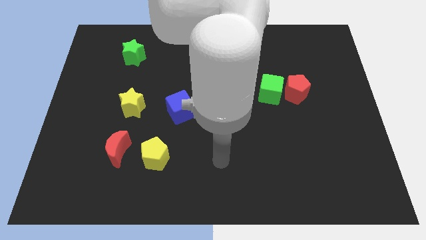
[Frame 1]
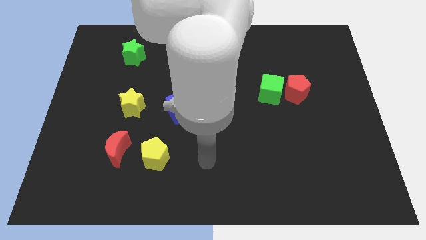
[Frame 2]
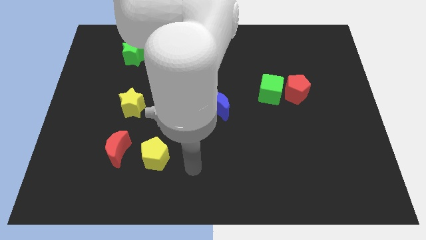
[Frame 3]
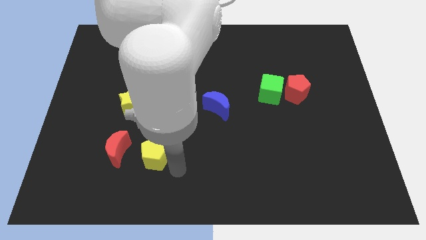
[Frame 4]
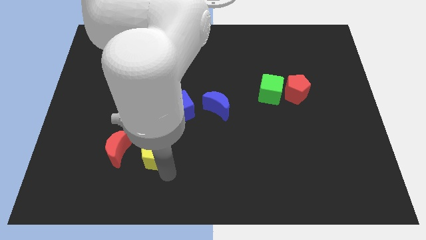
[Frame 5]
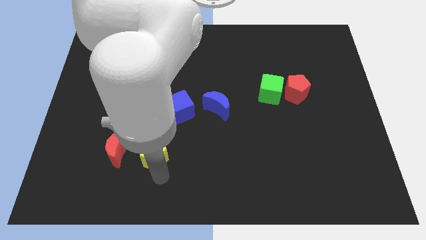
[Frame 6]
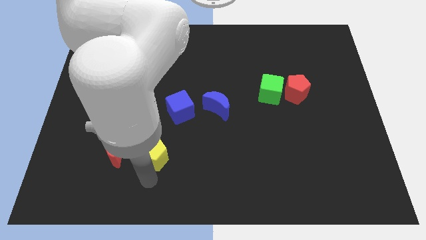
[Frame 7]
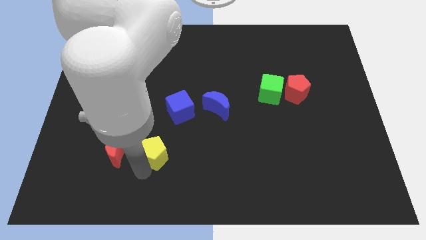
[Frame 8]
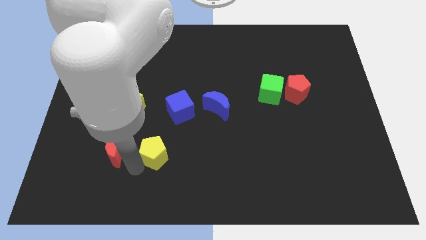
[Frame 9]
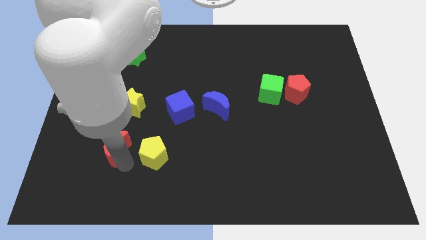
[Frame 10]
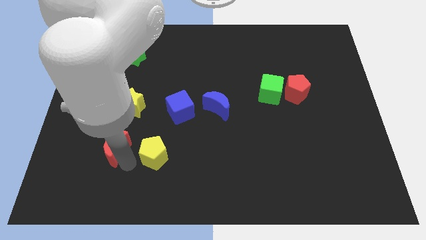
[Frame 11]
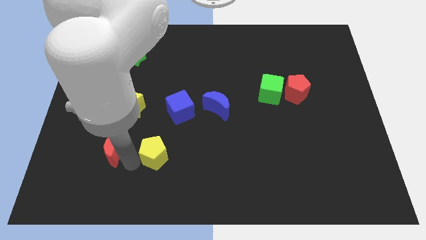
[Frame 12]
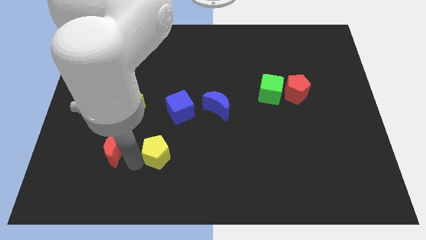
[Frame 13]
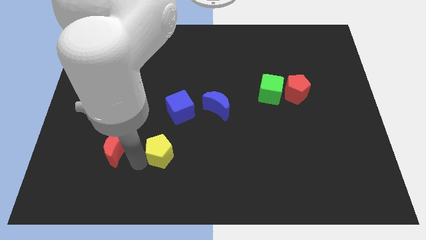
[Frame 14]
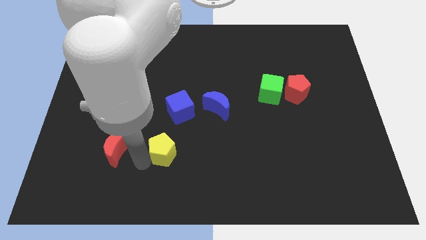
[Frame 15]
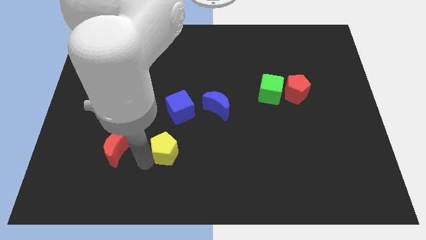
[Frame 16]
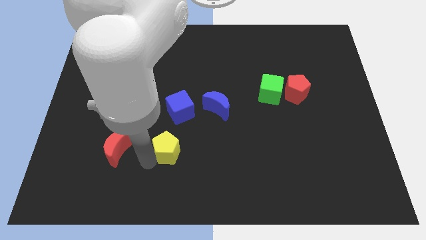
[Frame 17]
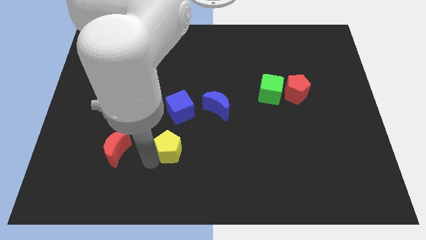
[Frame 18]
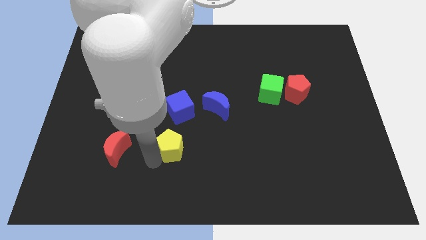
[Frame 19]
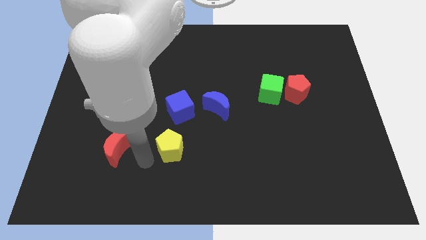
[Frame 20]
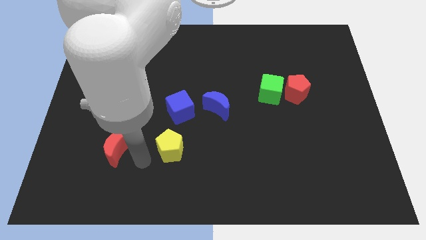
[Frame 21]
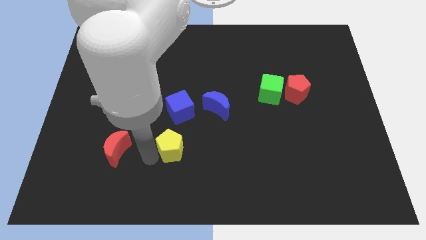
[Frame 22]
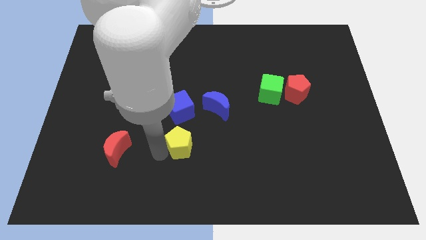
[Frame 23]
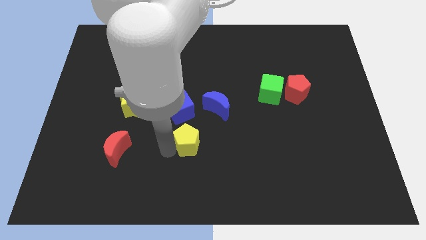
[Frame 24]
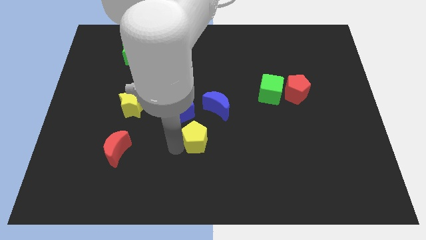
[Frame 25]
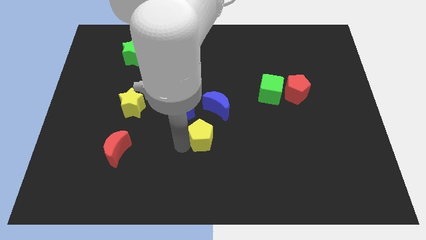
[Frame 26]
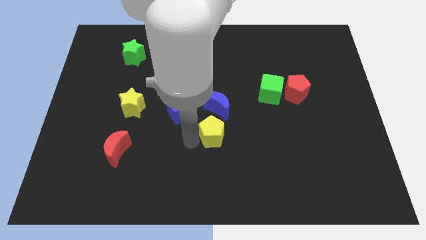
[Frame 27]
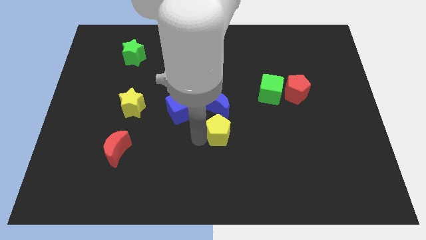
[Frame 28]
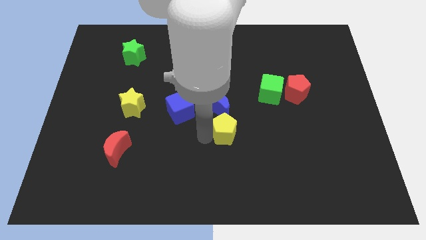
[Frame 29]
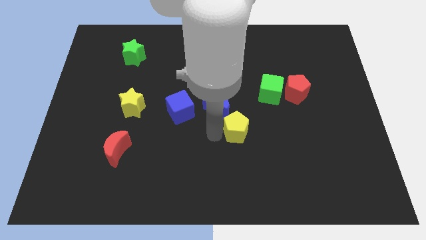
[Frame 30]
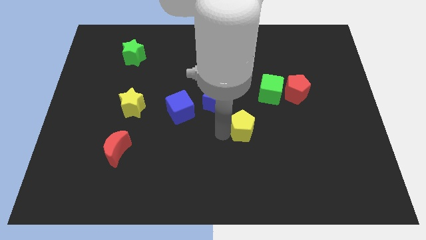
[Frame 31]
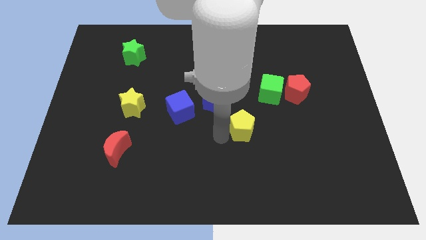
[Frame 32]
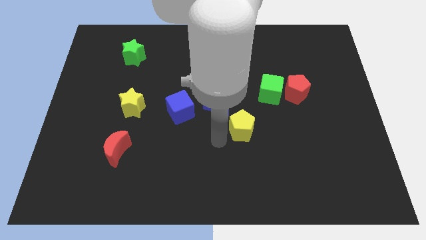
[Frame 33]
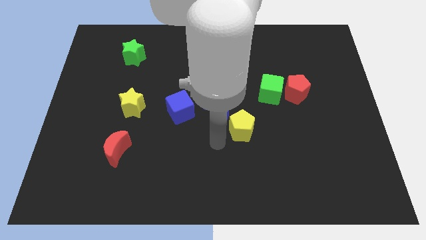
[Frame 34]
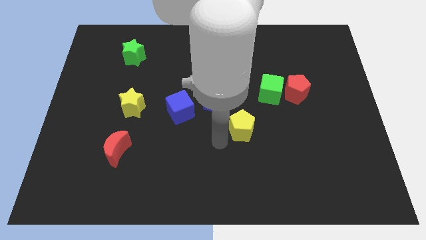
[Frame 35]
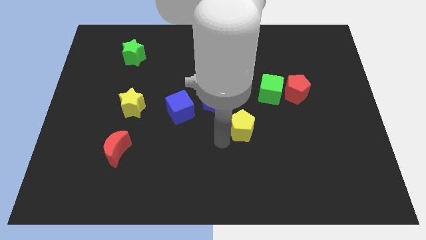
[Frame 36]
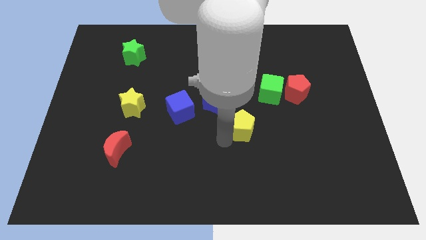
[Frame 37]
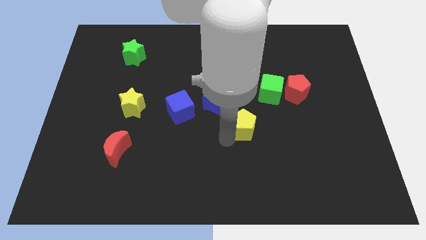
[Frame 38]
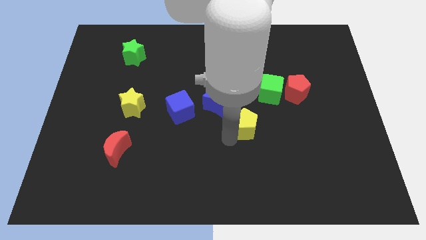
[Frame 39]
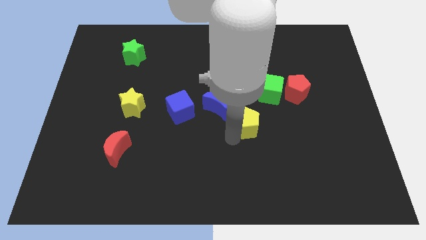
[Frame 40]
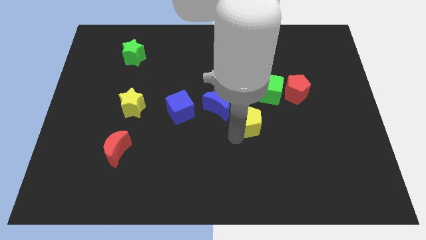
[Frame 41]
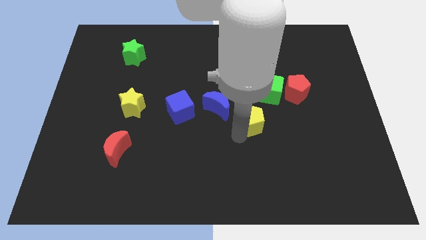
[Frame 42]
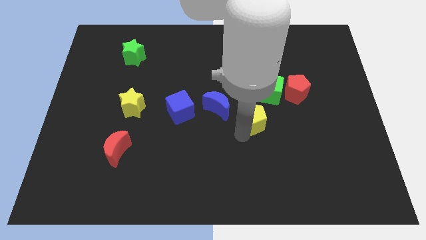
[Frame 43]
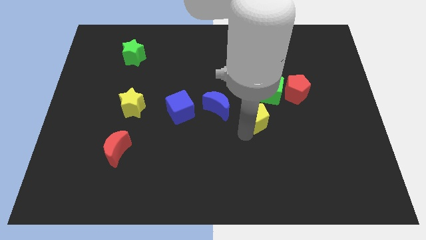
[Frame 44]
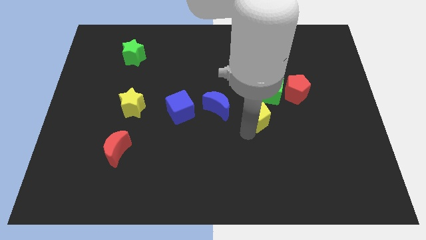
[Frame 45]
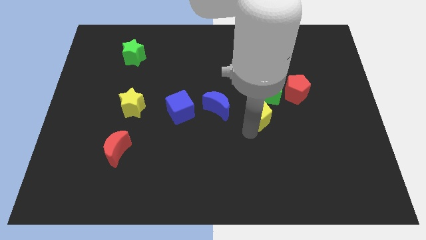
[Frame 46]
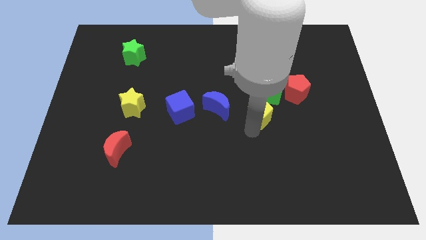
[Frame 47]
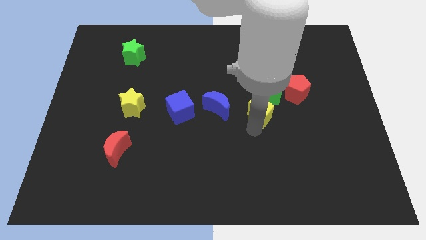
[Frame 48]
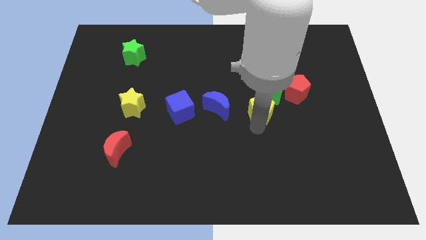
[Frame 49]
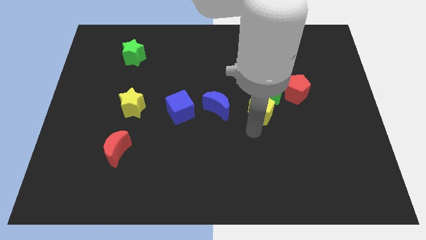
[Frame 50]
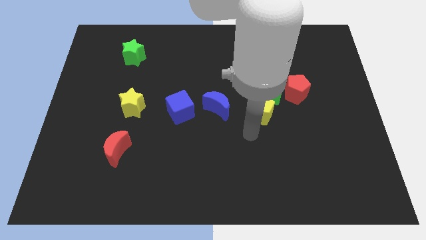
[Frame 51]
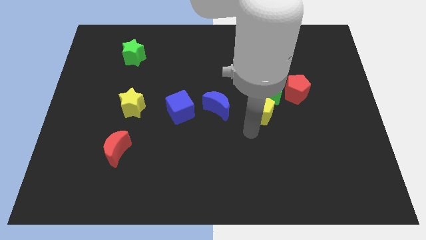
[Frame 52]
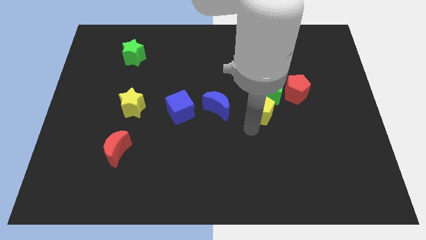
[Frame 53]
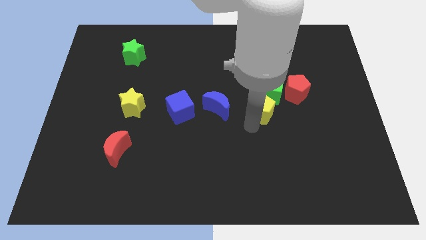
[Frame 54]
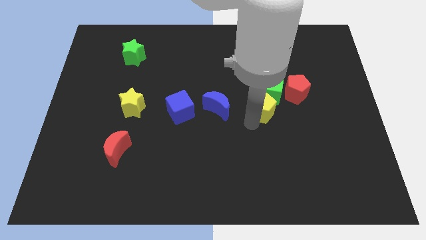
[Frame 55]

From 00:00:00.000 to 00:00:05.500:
slide the yellow pentagon towards the green cube
